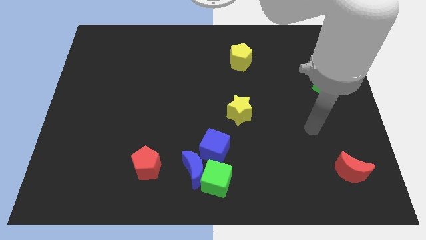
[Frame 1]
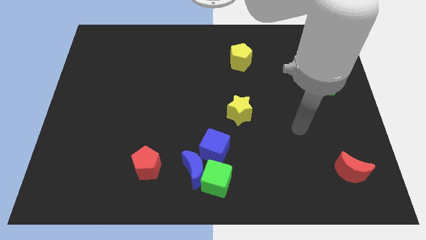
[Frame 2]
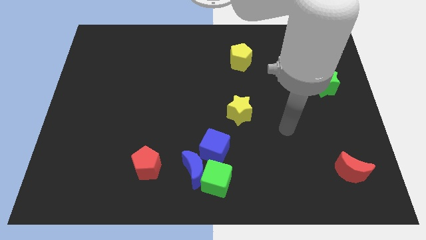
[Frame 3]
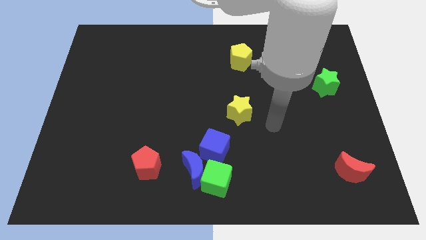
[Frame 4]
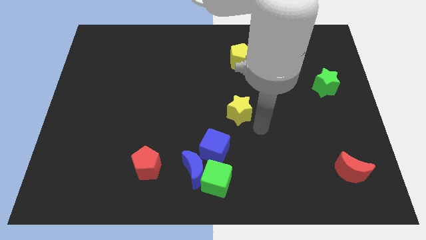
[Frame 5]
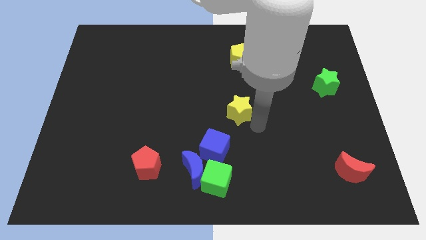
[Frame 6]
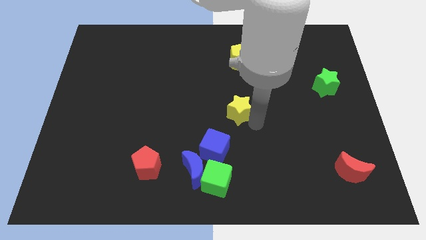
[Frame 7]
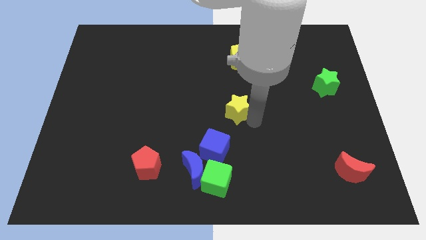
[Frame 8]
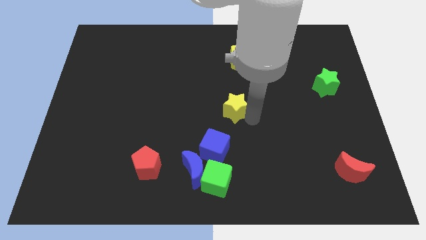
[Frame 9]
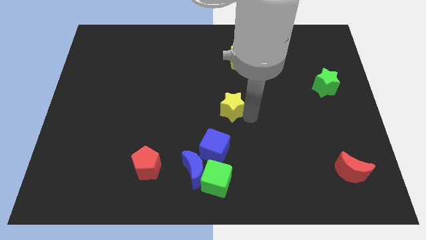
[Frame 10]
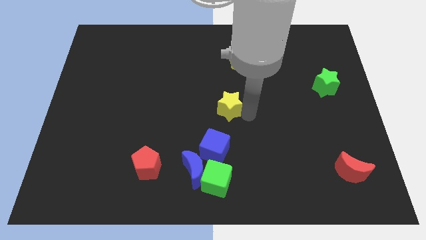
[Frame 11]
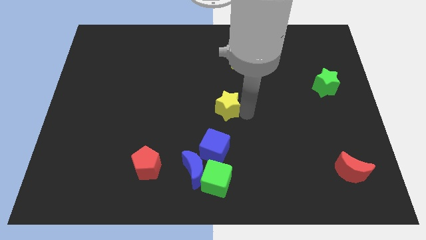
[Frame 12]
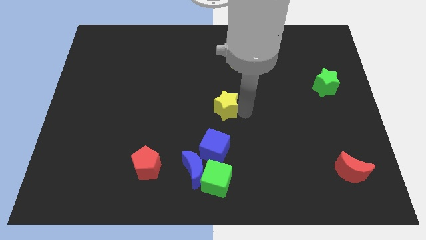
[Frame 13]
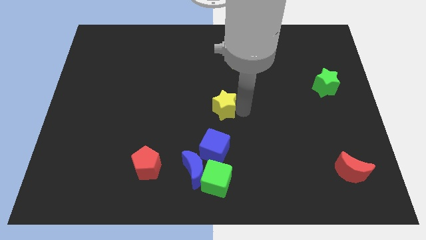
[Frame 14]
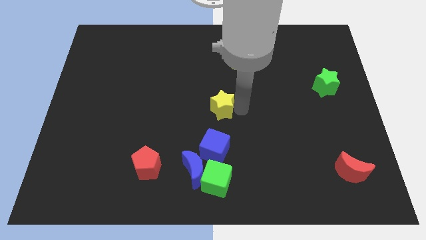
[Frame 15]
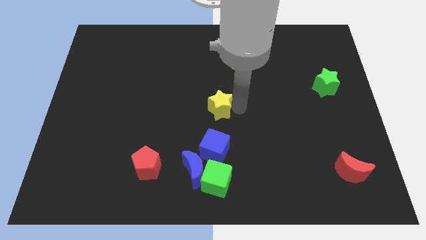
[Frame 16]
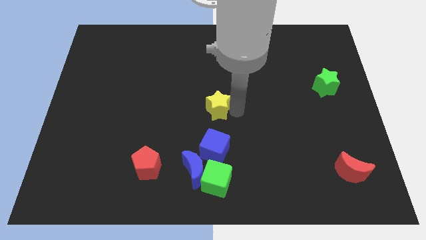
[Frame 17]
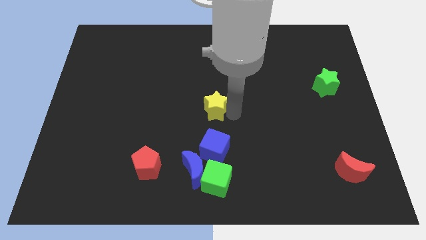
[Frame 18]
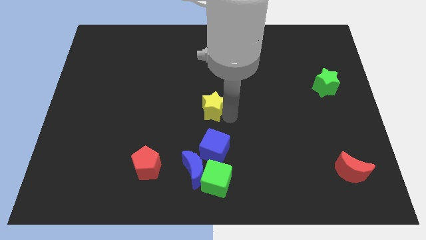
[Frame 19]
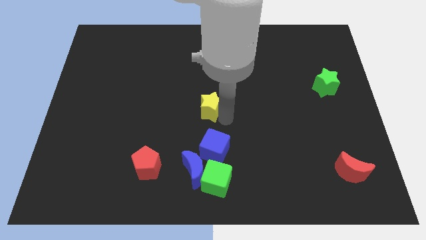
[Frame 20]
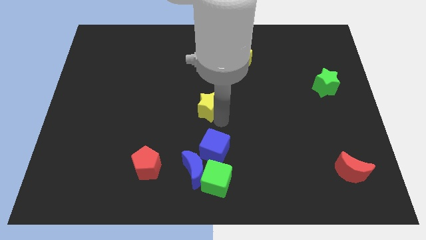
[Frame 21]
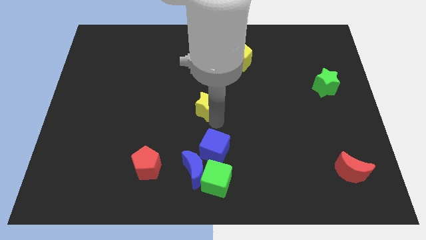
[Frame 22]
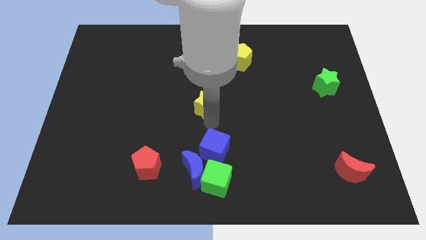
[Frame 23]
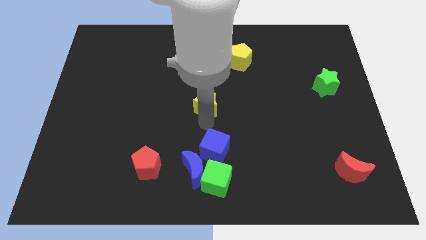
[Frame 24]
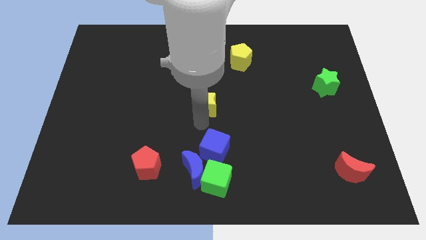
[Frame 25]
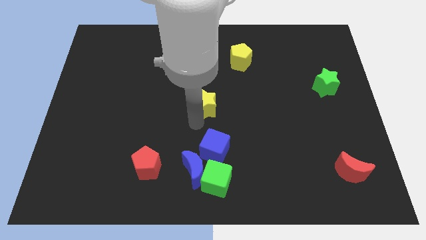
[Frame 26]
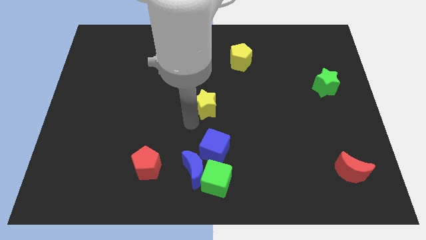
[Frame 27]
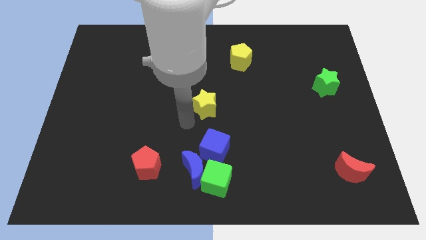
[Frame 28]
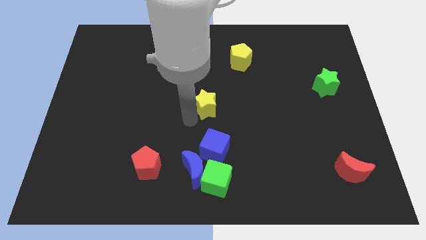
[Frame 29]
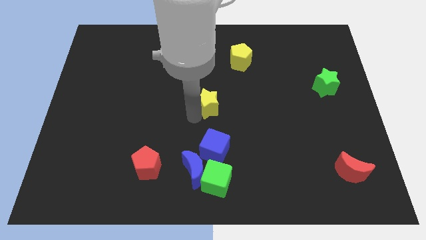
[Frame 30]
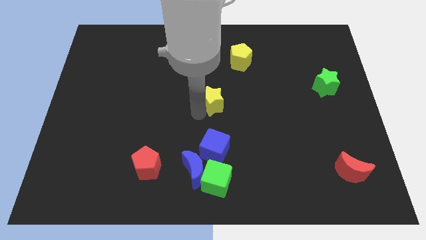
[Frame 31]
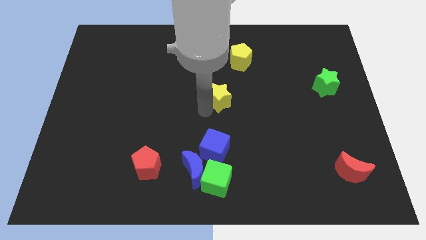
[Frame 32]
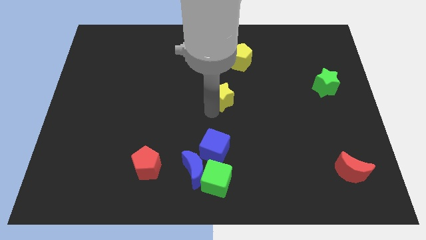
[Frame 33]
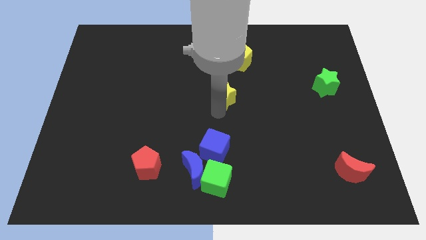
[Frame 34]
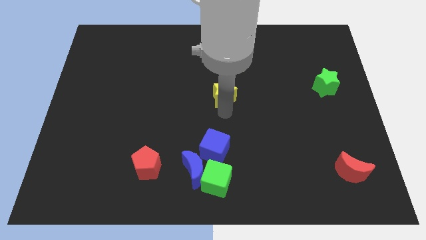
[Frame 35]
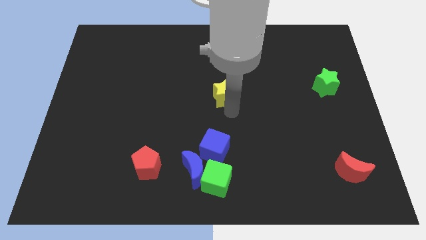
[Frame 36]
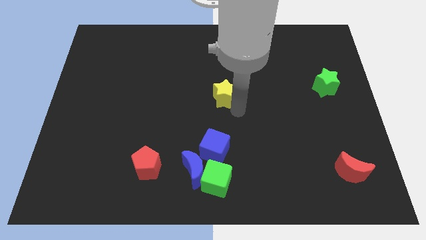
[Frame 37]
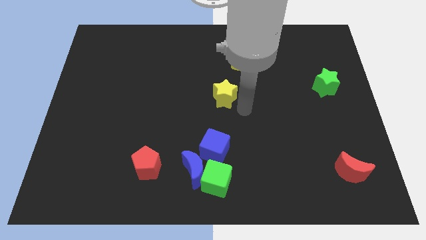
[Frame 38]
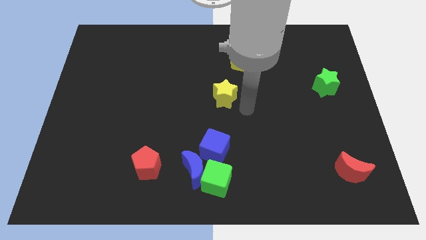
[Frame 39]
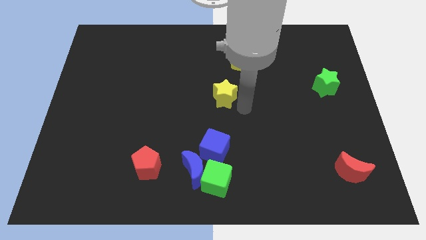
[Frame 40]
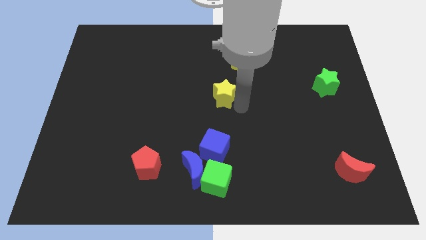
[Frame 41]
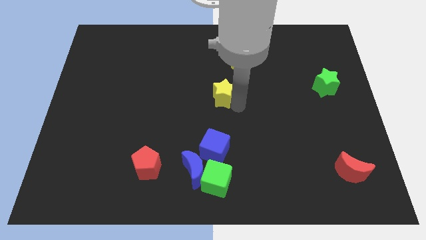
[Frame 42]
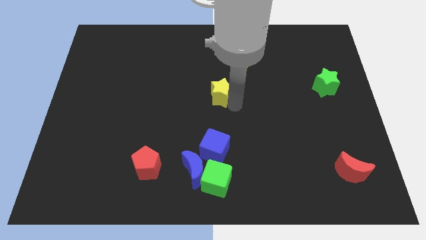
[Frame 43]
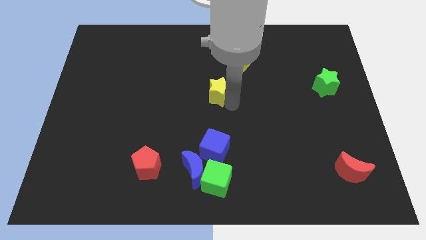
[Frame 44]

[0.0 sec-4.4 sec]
move the yellow star a bit upwards and then left

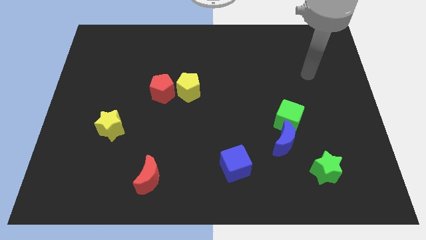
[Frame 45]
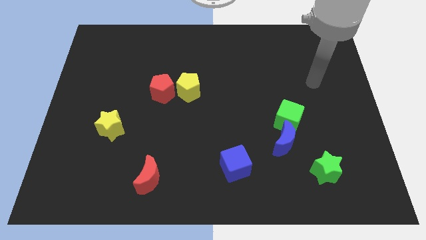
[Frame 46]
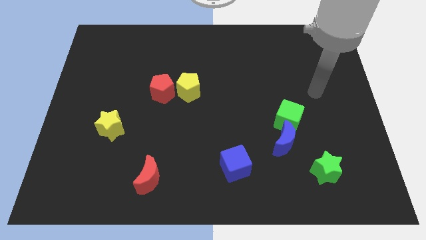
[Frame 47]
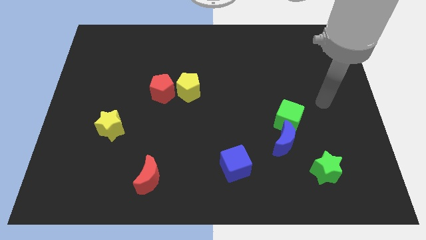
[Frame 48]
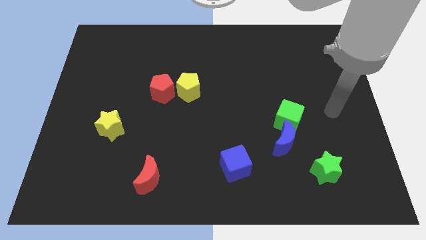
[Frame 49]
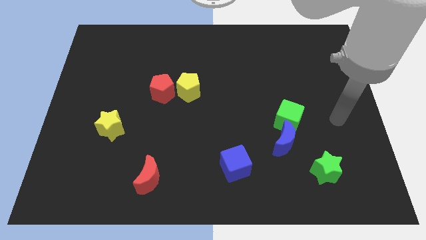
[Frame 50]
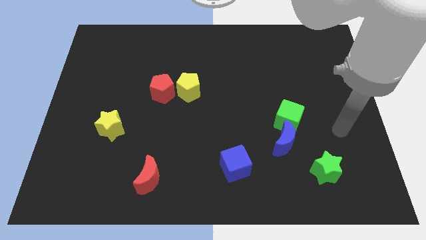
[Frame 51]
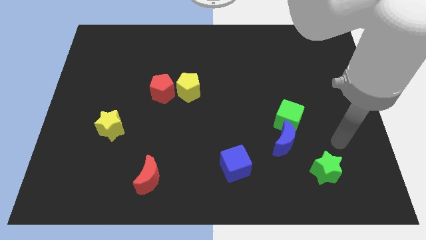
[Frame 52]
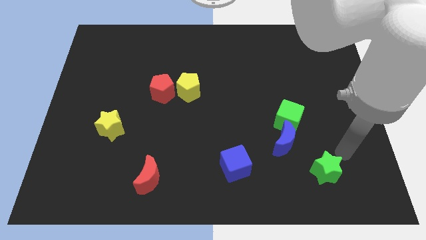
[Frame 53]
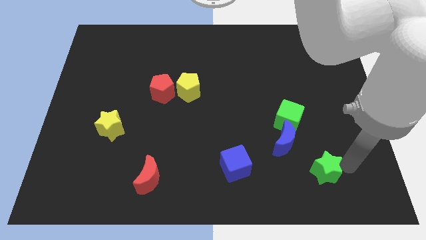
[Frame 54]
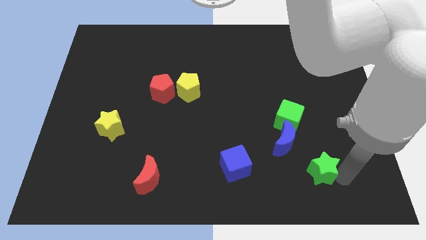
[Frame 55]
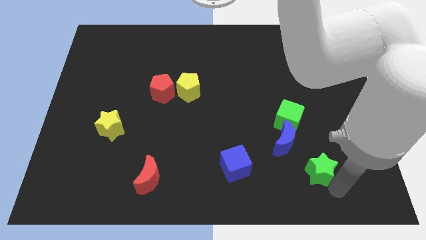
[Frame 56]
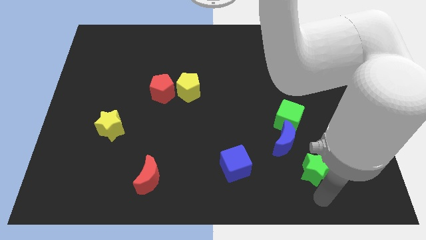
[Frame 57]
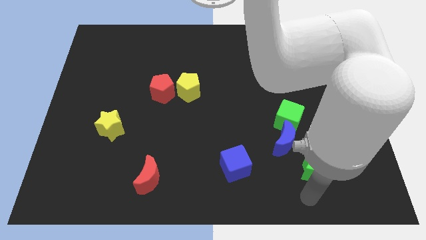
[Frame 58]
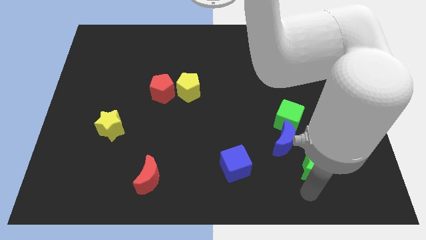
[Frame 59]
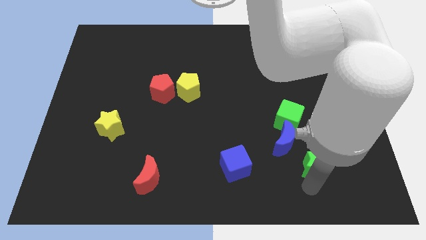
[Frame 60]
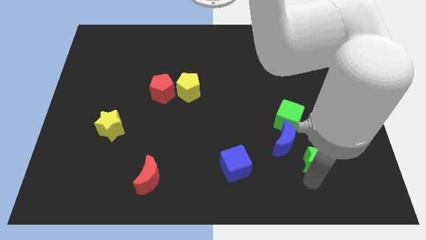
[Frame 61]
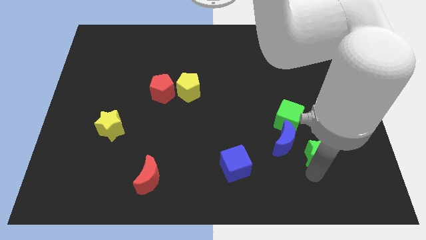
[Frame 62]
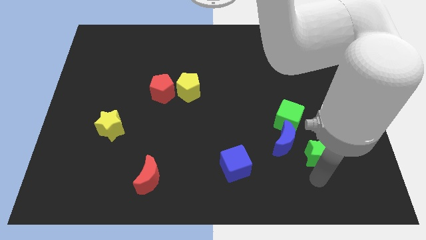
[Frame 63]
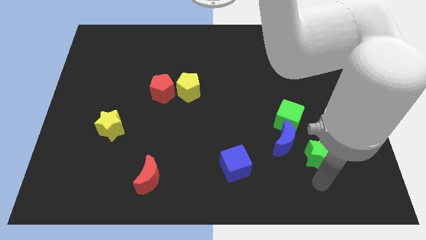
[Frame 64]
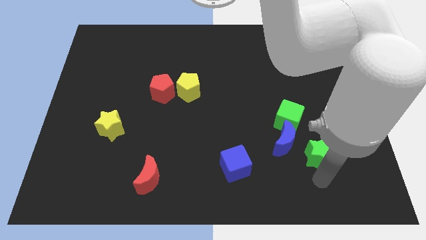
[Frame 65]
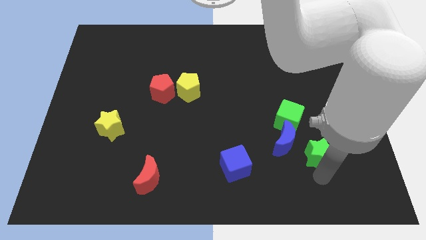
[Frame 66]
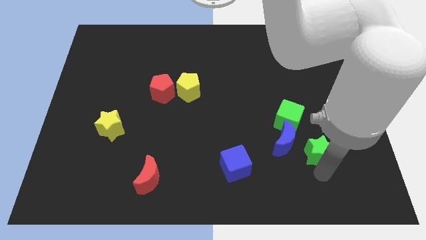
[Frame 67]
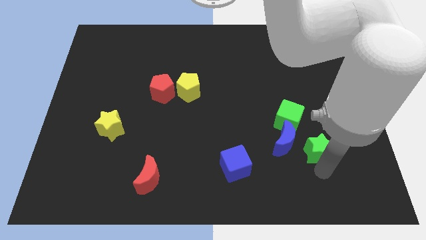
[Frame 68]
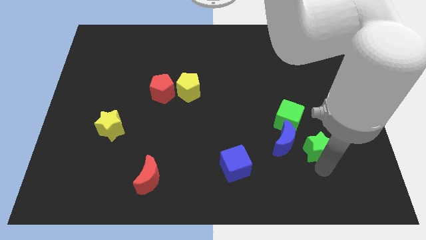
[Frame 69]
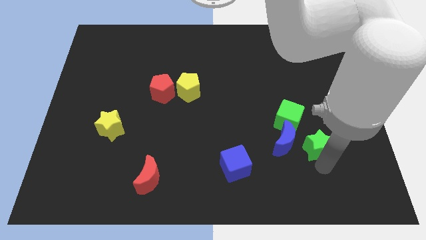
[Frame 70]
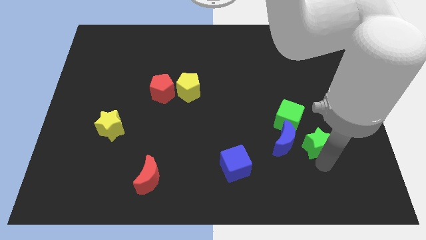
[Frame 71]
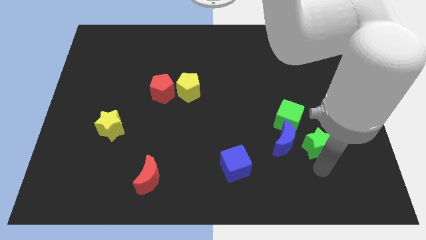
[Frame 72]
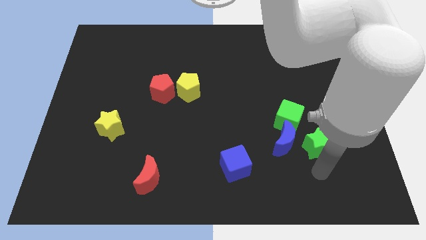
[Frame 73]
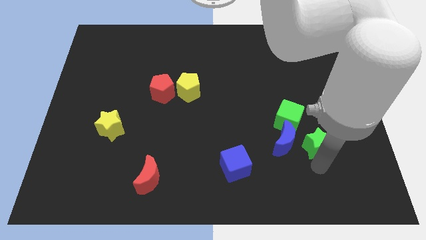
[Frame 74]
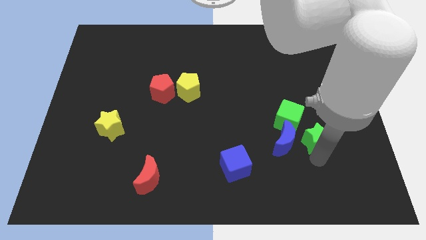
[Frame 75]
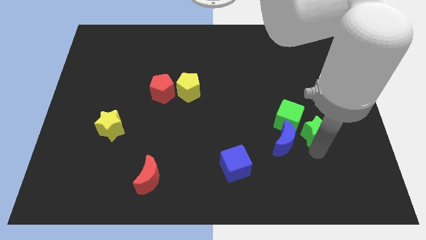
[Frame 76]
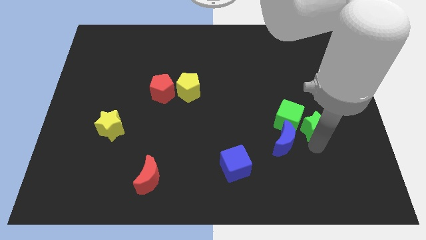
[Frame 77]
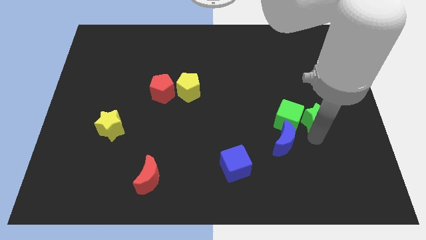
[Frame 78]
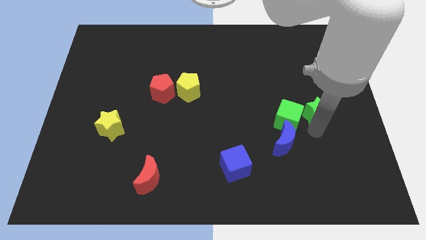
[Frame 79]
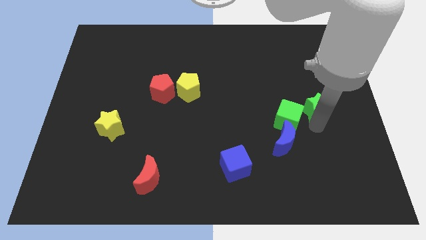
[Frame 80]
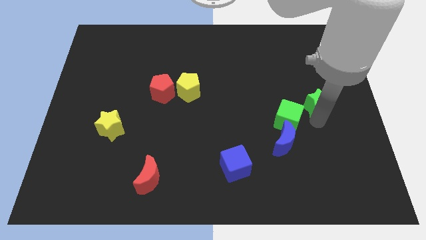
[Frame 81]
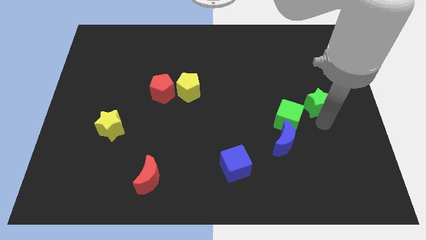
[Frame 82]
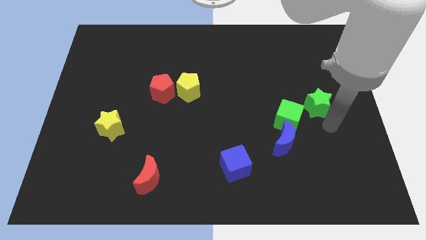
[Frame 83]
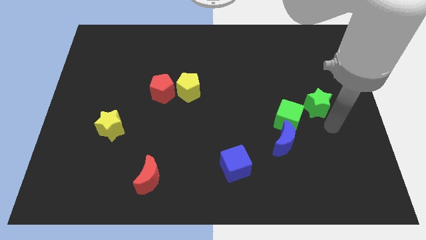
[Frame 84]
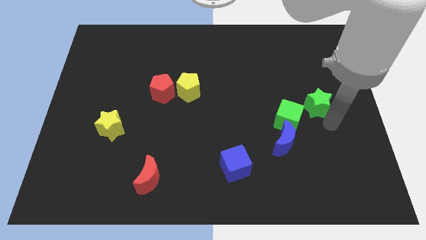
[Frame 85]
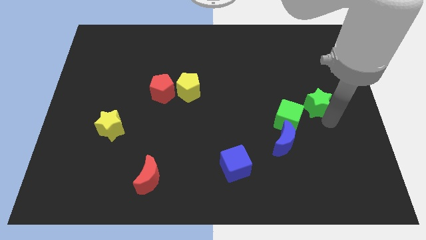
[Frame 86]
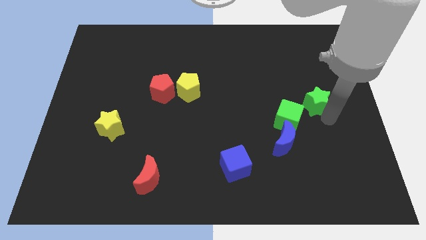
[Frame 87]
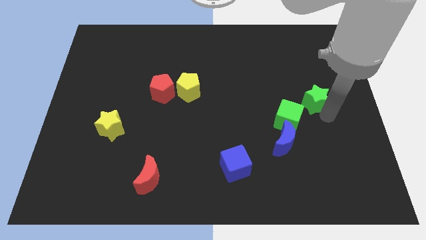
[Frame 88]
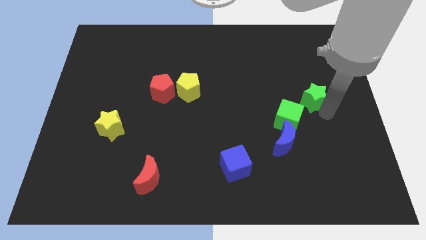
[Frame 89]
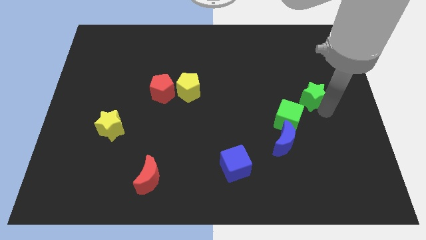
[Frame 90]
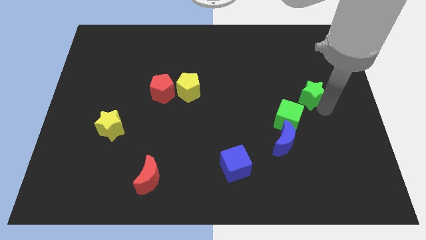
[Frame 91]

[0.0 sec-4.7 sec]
push the green star up
